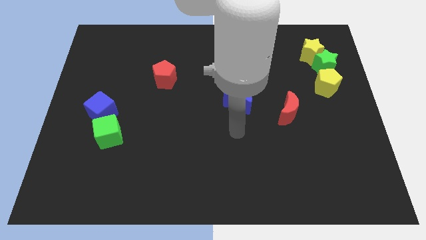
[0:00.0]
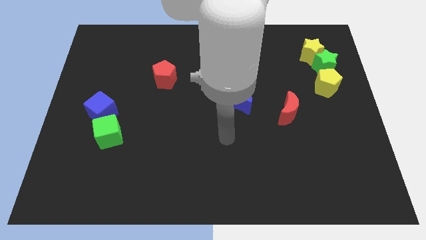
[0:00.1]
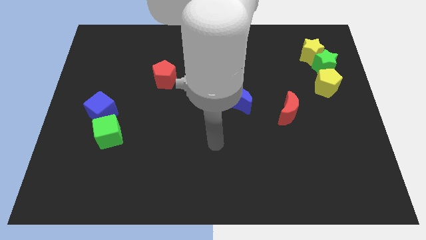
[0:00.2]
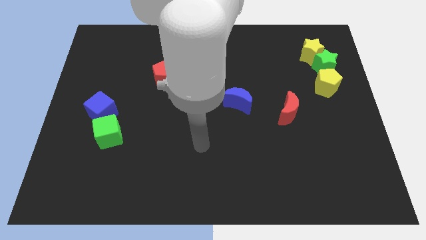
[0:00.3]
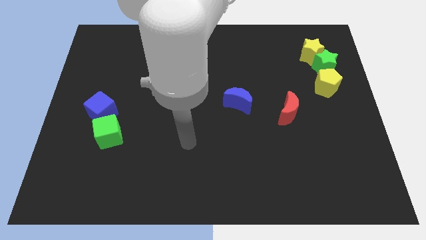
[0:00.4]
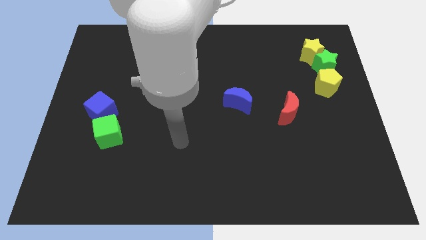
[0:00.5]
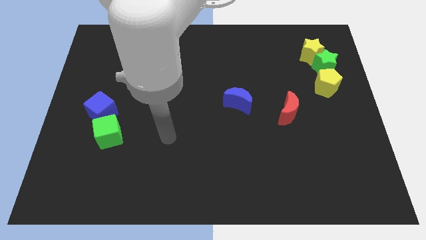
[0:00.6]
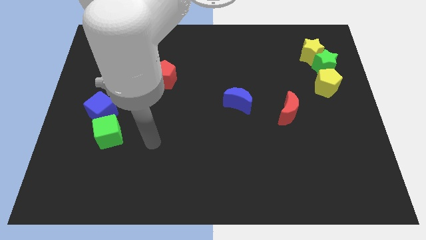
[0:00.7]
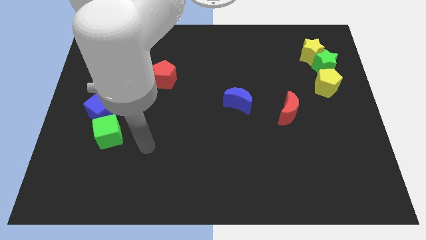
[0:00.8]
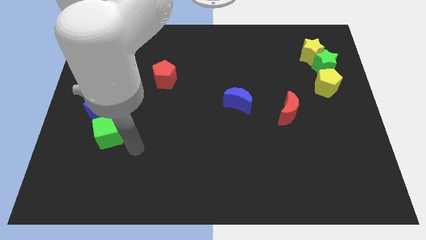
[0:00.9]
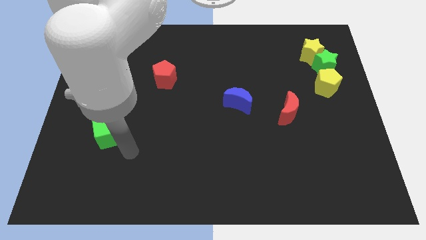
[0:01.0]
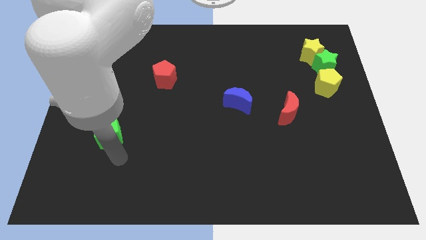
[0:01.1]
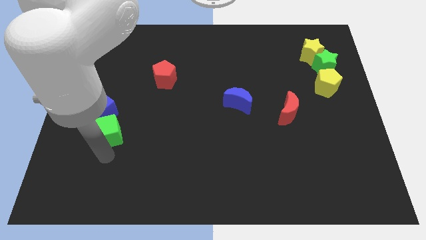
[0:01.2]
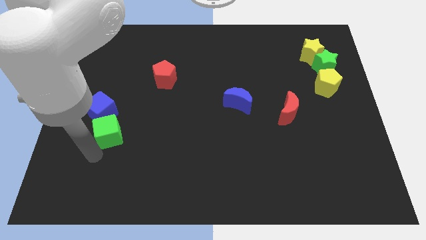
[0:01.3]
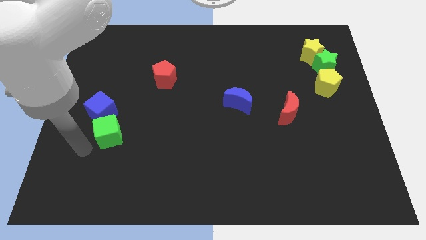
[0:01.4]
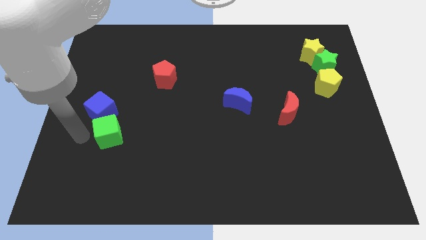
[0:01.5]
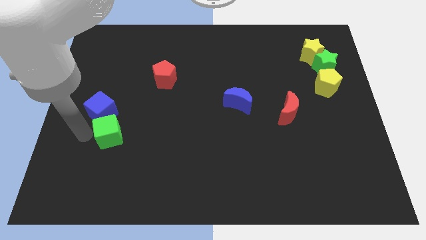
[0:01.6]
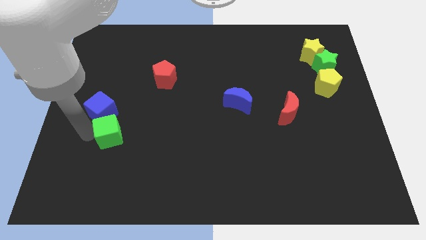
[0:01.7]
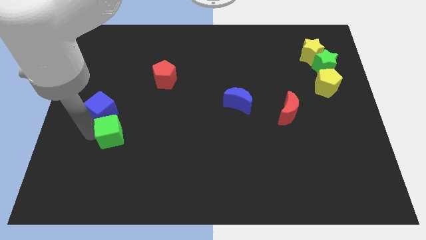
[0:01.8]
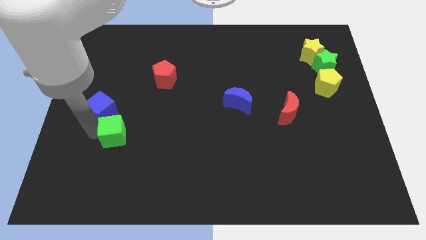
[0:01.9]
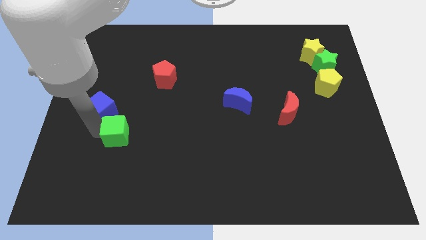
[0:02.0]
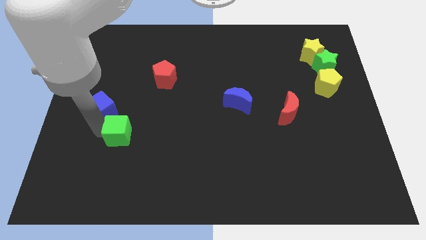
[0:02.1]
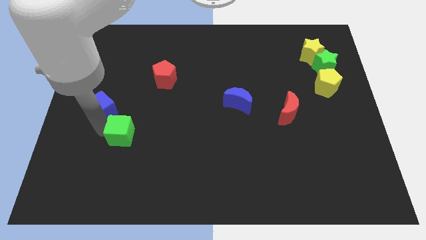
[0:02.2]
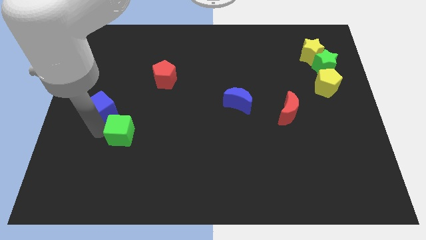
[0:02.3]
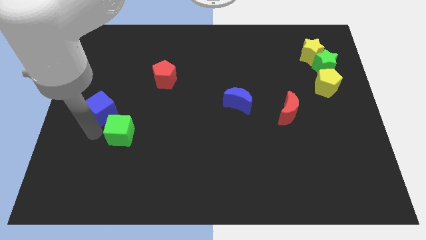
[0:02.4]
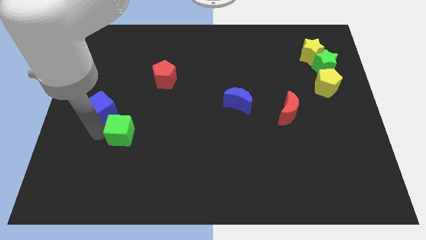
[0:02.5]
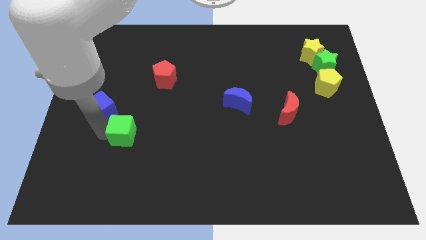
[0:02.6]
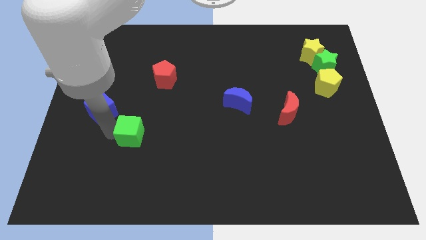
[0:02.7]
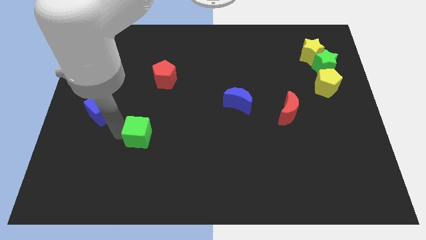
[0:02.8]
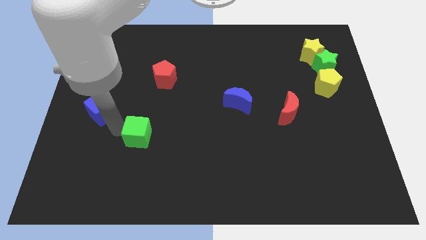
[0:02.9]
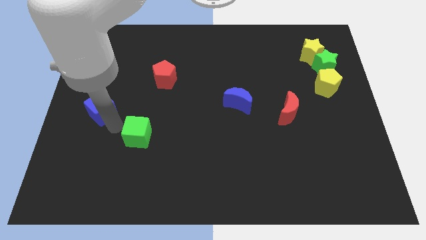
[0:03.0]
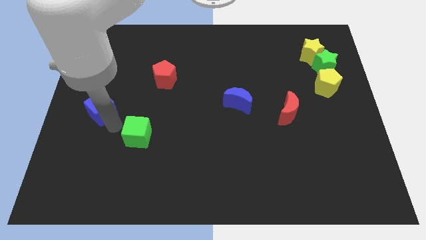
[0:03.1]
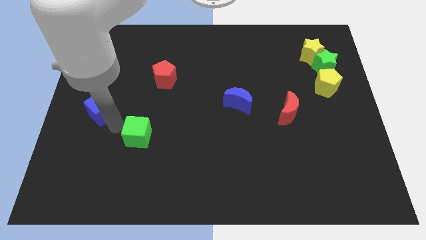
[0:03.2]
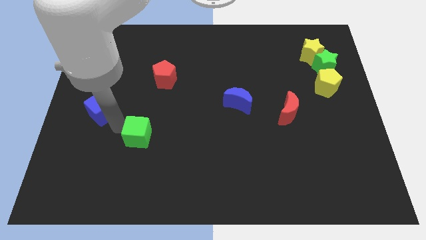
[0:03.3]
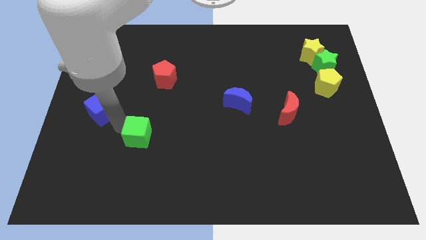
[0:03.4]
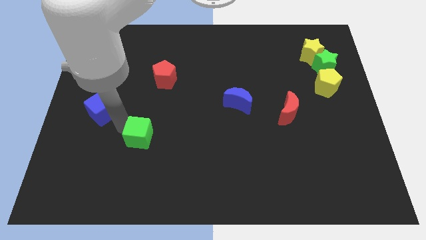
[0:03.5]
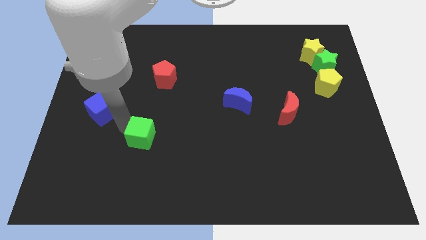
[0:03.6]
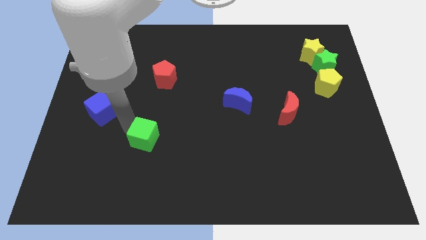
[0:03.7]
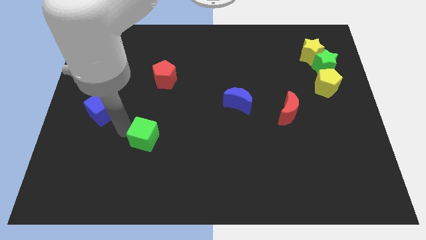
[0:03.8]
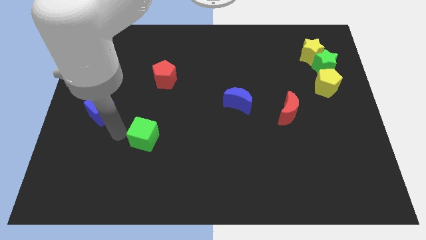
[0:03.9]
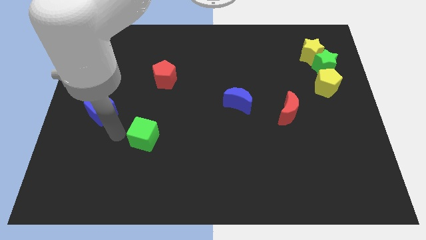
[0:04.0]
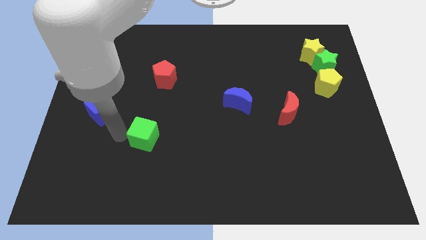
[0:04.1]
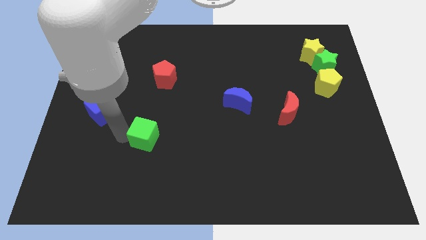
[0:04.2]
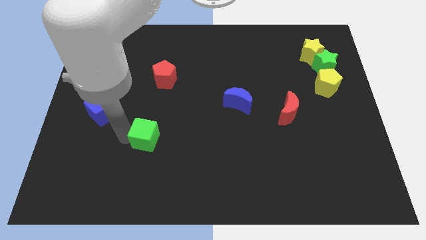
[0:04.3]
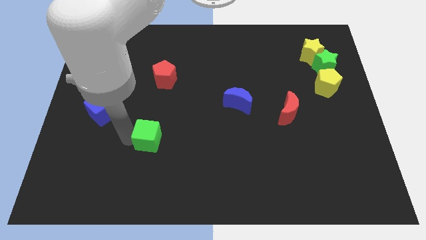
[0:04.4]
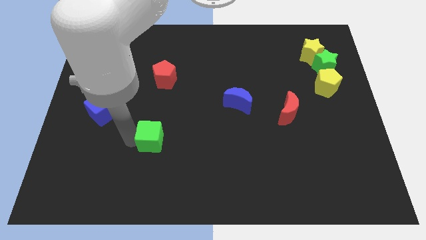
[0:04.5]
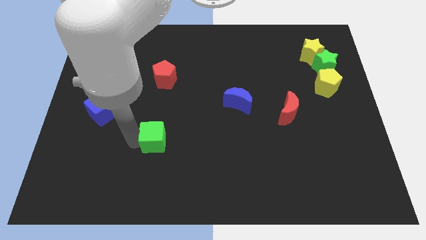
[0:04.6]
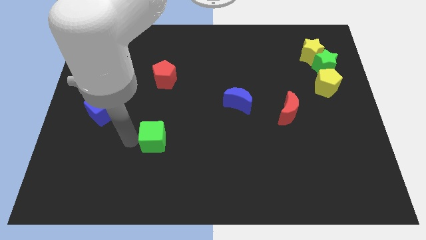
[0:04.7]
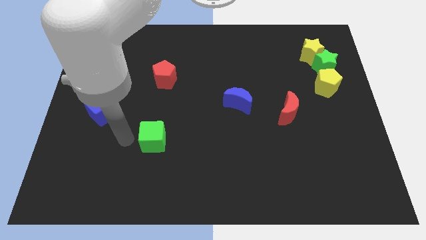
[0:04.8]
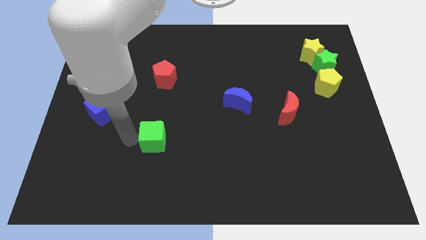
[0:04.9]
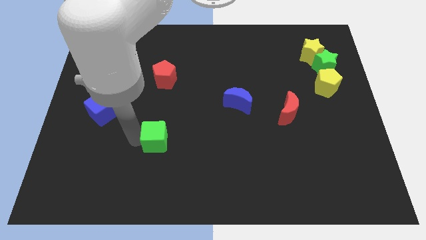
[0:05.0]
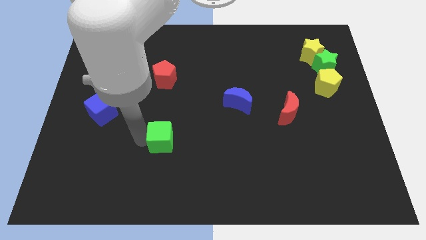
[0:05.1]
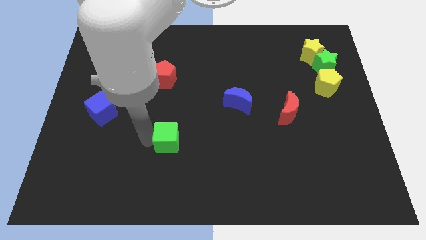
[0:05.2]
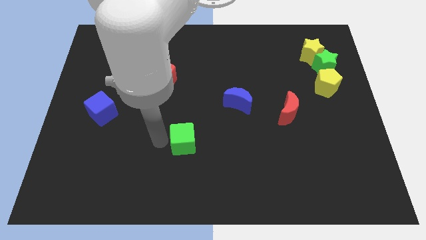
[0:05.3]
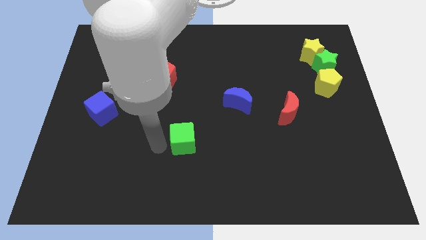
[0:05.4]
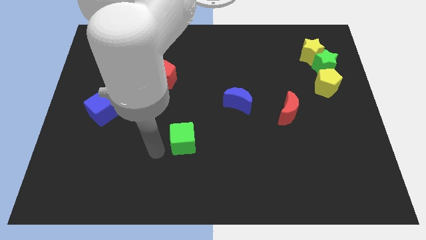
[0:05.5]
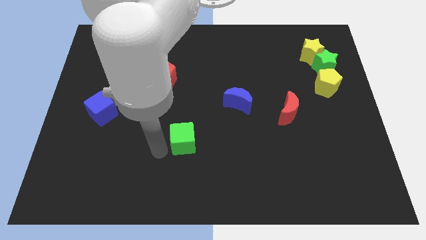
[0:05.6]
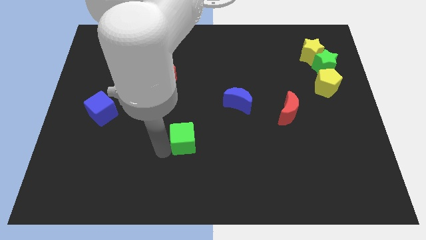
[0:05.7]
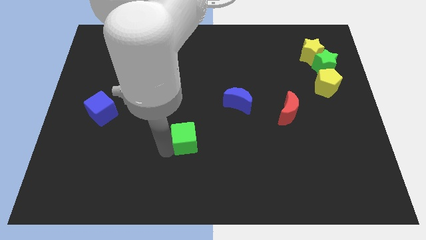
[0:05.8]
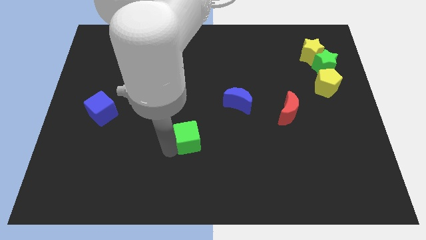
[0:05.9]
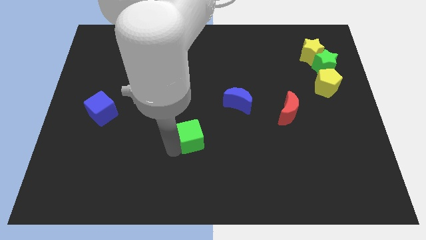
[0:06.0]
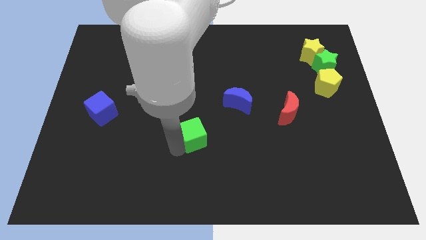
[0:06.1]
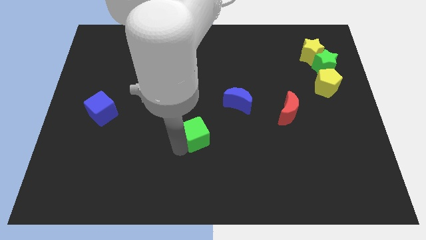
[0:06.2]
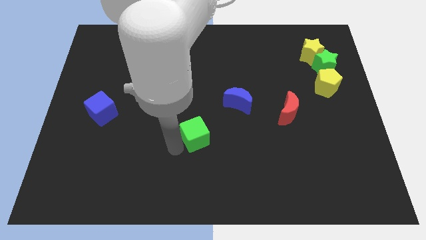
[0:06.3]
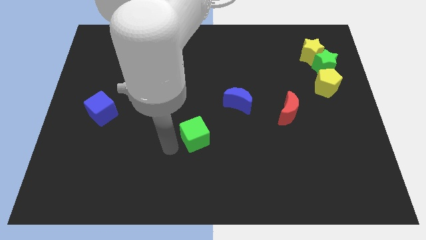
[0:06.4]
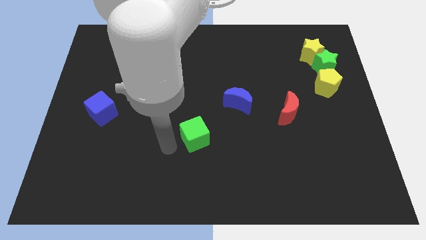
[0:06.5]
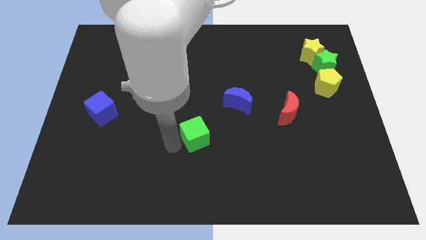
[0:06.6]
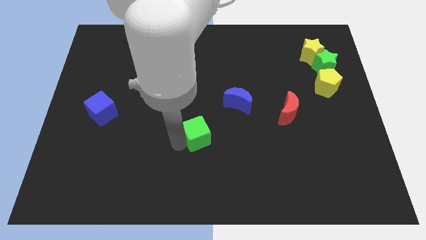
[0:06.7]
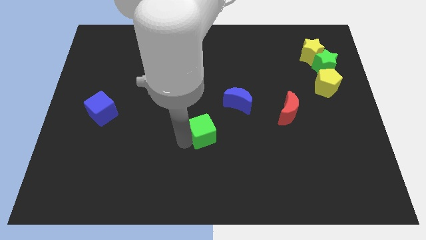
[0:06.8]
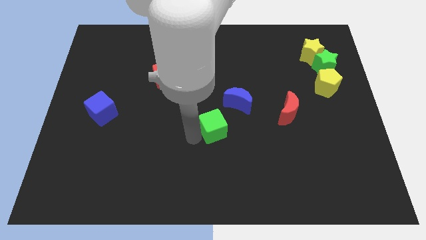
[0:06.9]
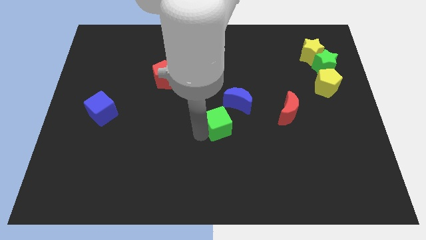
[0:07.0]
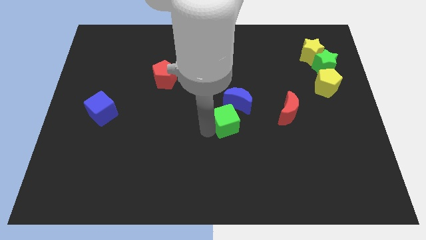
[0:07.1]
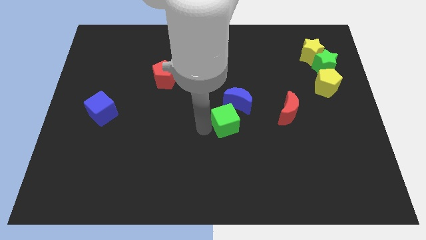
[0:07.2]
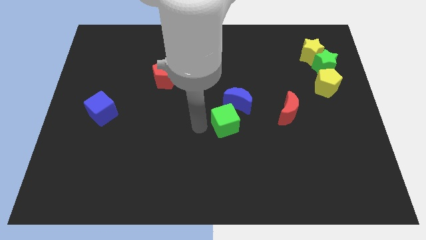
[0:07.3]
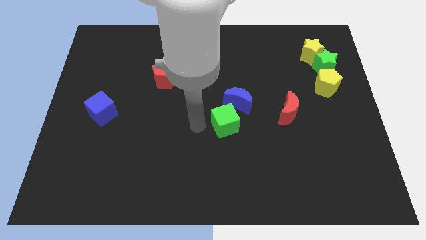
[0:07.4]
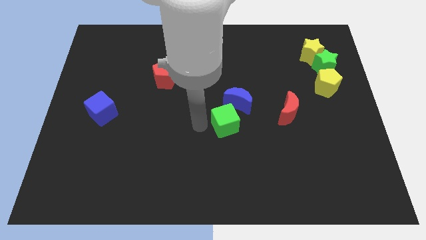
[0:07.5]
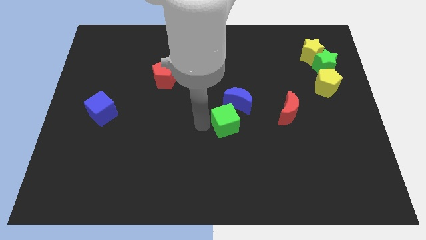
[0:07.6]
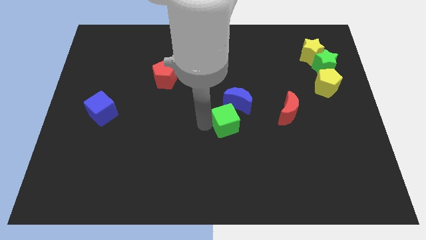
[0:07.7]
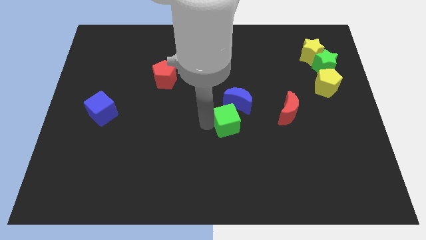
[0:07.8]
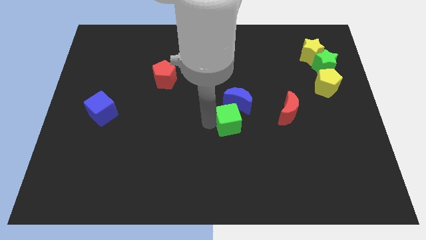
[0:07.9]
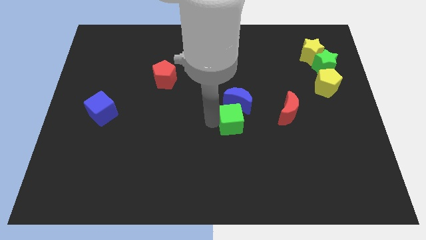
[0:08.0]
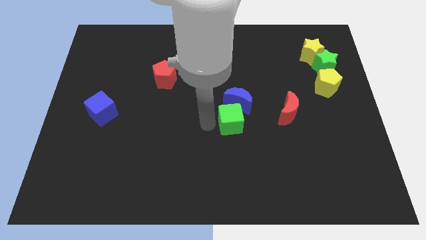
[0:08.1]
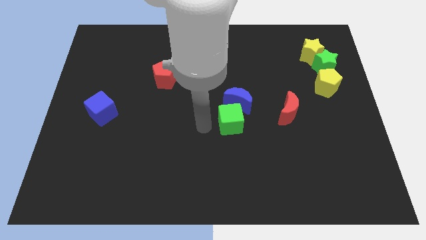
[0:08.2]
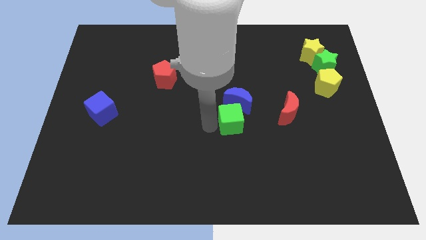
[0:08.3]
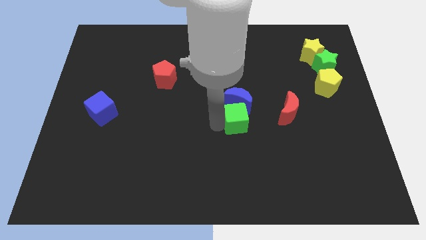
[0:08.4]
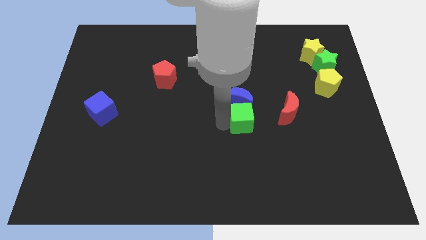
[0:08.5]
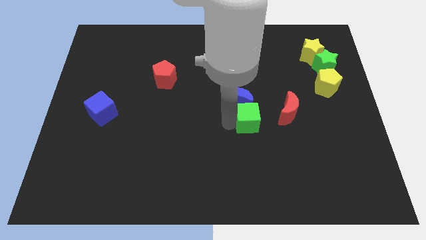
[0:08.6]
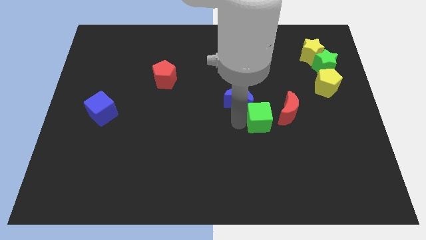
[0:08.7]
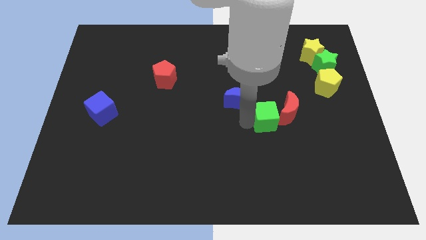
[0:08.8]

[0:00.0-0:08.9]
push the green cube close to the red moon
